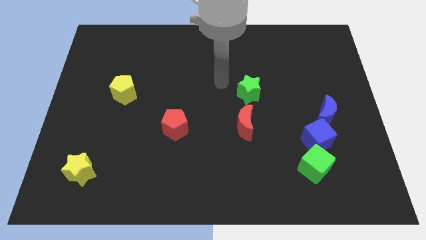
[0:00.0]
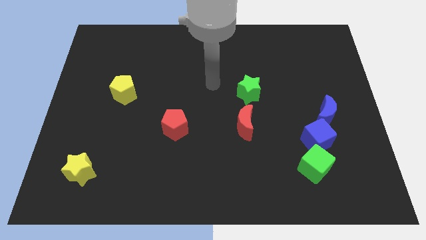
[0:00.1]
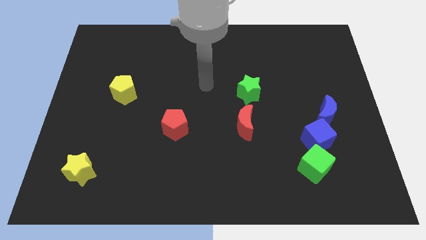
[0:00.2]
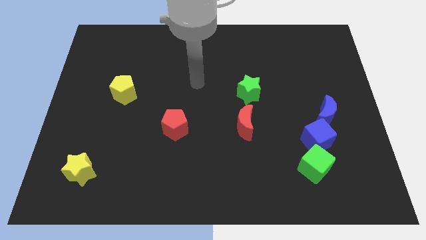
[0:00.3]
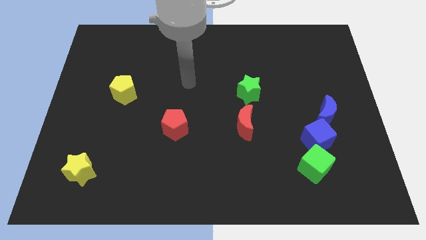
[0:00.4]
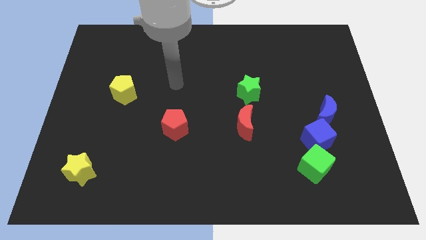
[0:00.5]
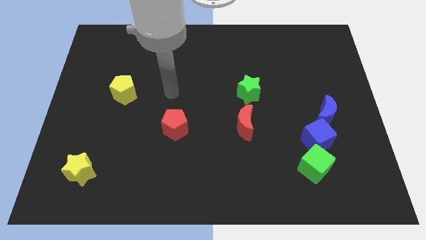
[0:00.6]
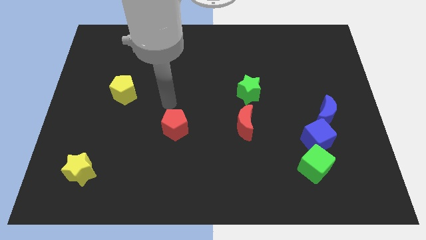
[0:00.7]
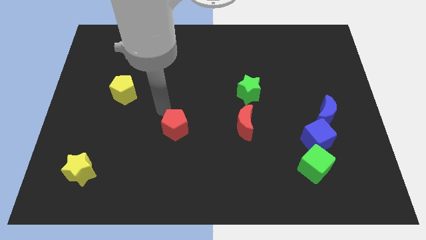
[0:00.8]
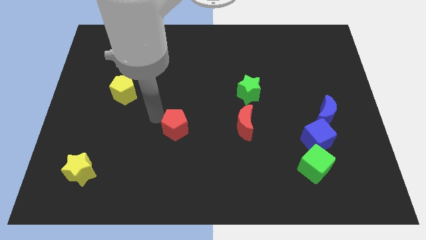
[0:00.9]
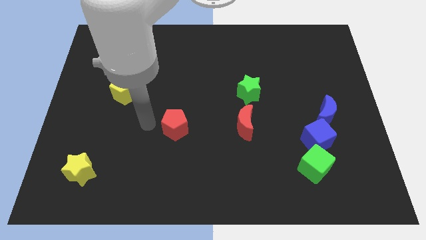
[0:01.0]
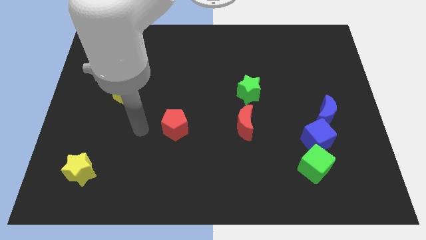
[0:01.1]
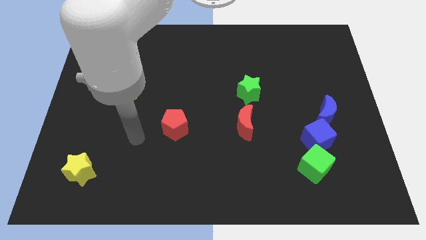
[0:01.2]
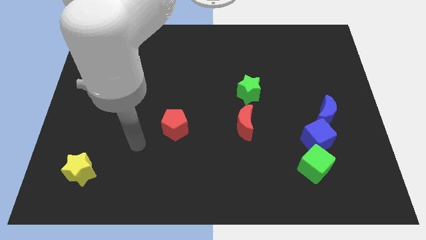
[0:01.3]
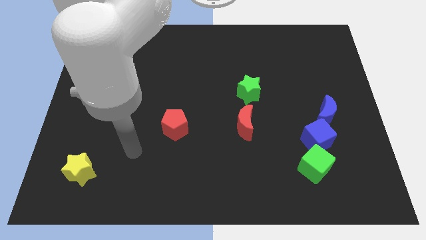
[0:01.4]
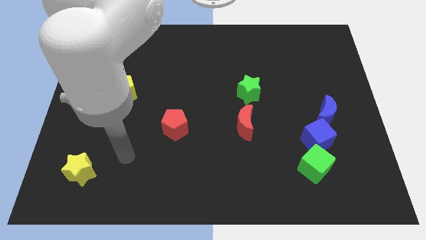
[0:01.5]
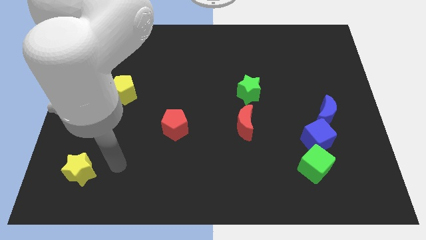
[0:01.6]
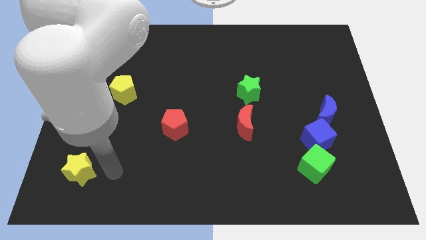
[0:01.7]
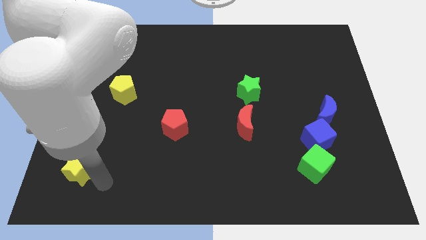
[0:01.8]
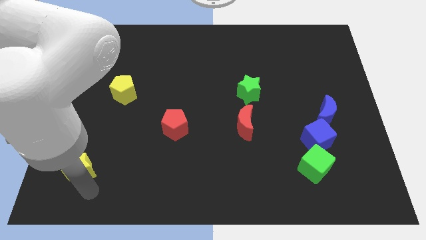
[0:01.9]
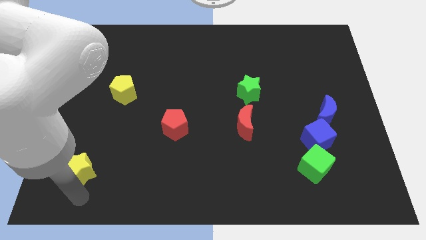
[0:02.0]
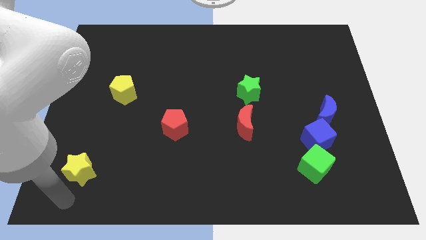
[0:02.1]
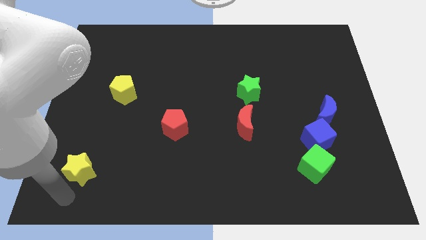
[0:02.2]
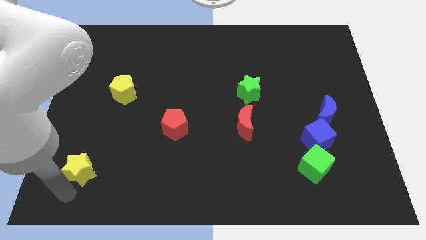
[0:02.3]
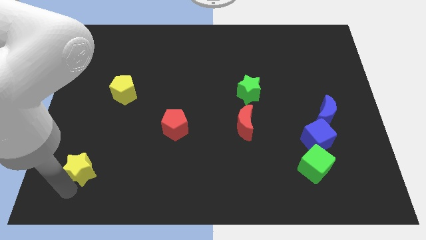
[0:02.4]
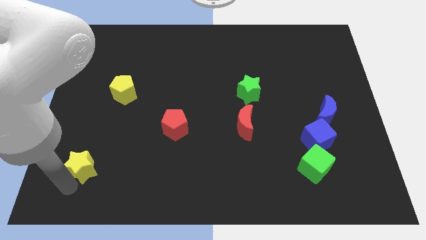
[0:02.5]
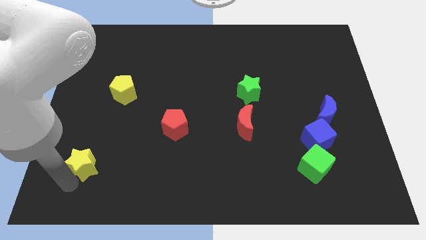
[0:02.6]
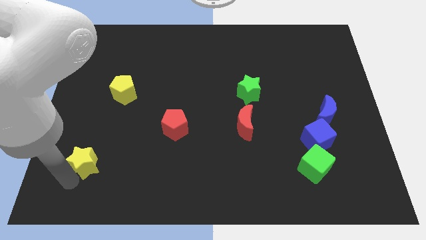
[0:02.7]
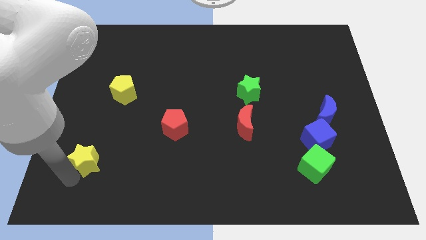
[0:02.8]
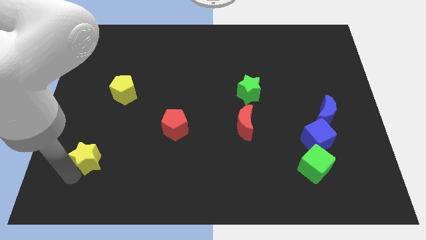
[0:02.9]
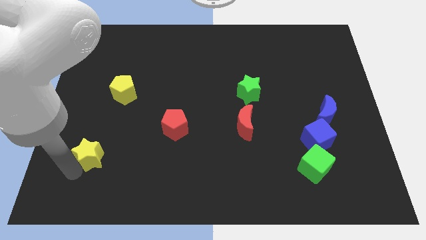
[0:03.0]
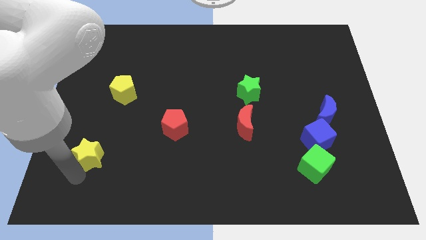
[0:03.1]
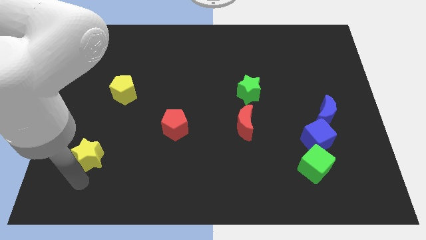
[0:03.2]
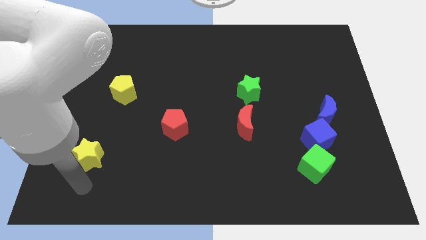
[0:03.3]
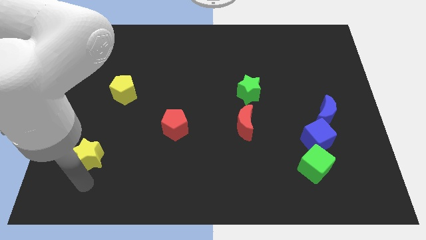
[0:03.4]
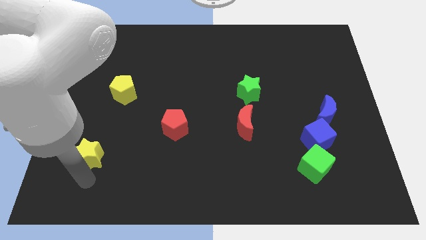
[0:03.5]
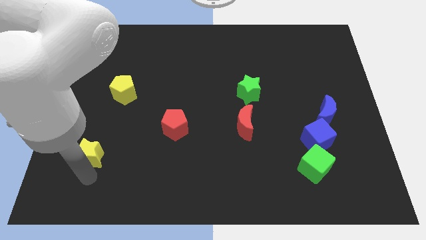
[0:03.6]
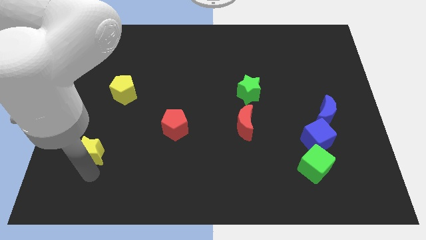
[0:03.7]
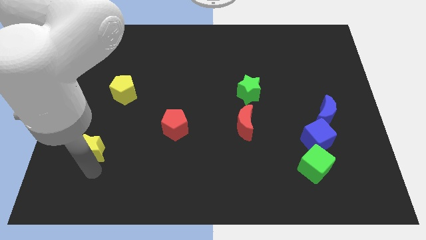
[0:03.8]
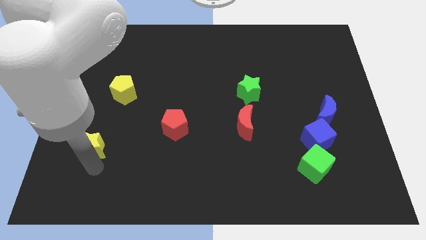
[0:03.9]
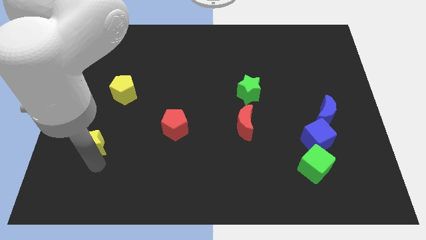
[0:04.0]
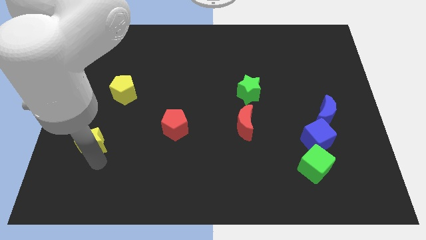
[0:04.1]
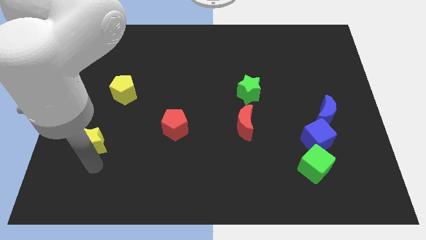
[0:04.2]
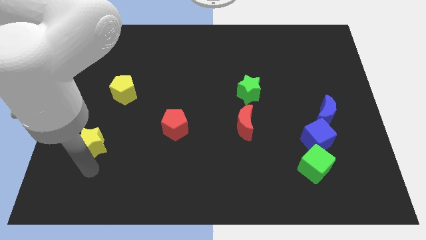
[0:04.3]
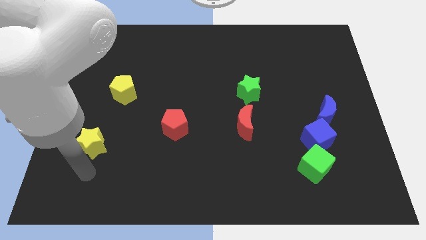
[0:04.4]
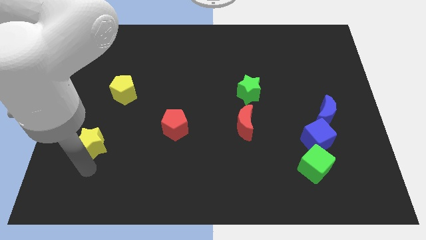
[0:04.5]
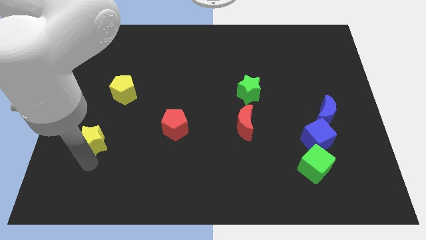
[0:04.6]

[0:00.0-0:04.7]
move the yellow star slightly up

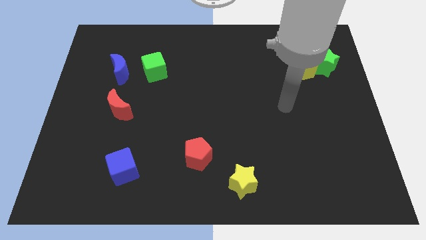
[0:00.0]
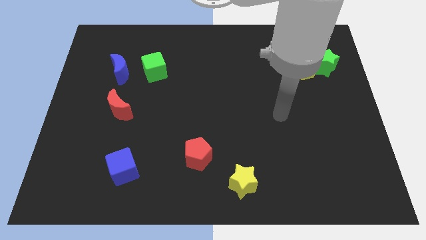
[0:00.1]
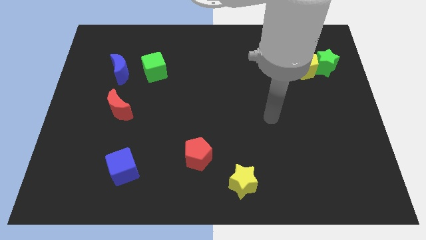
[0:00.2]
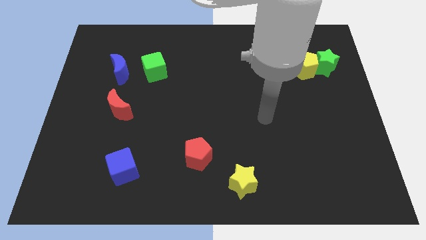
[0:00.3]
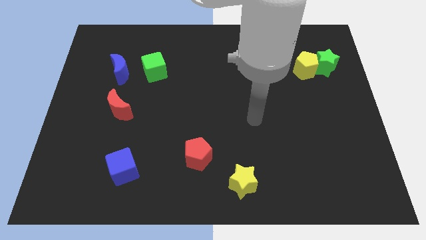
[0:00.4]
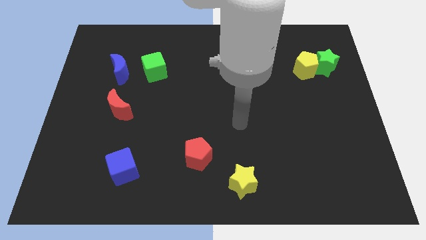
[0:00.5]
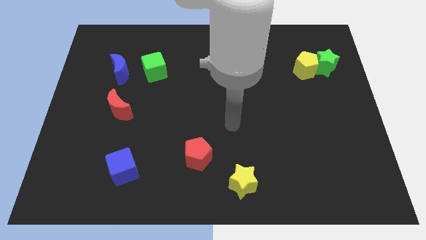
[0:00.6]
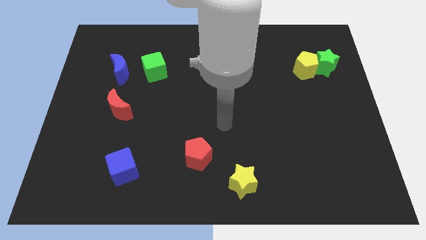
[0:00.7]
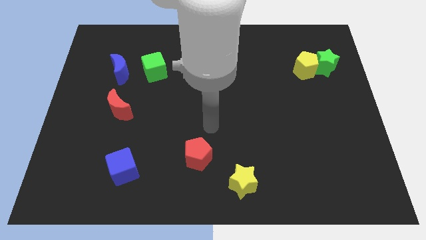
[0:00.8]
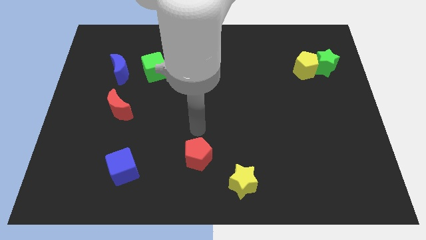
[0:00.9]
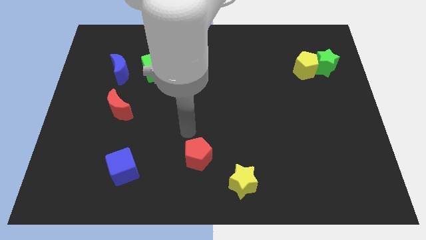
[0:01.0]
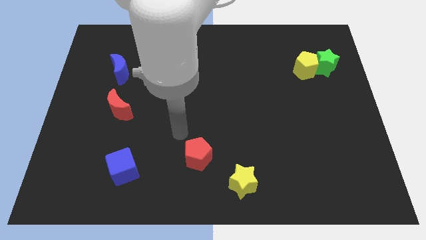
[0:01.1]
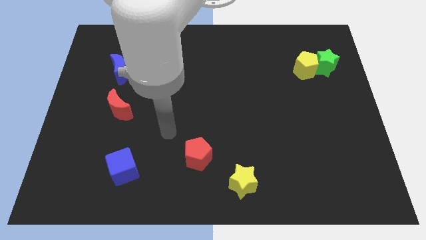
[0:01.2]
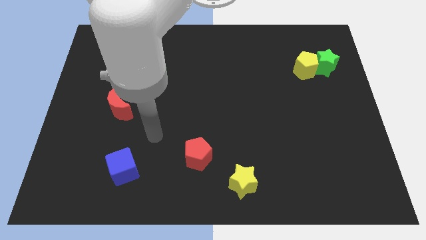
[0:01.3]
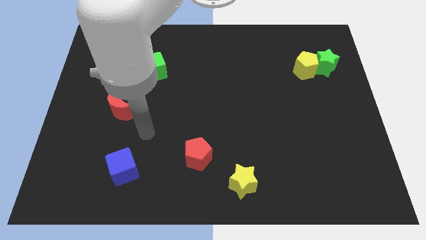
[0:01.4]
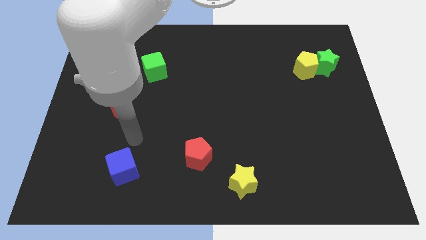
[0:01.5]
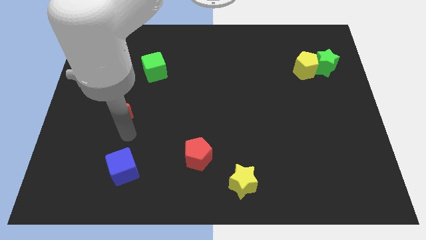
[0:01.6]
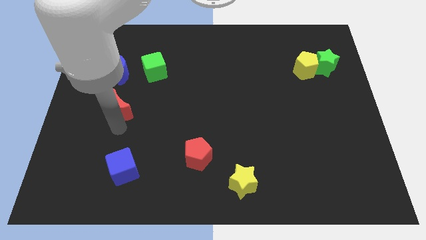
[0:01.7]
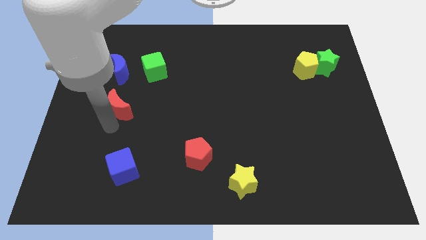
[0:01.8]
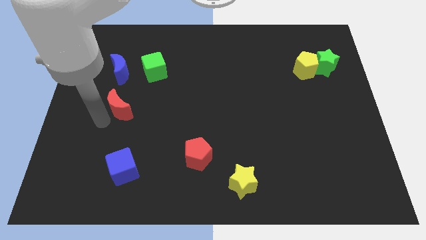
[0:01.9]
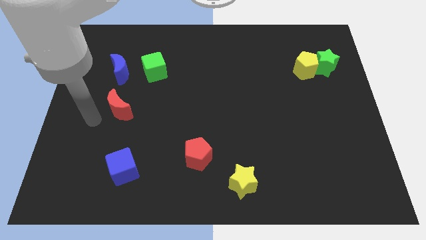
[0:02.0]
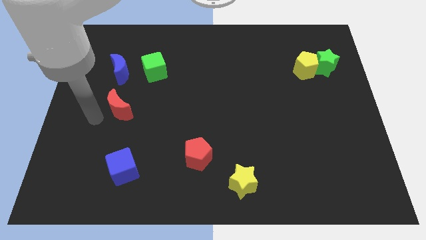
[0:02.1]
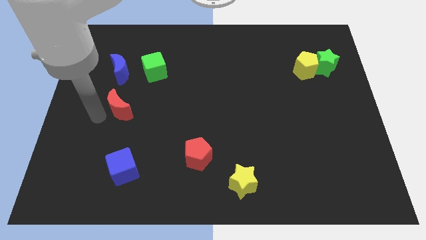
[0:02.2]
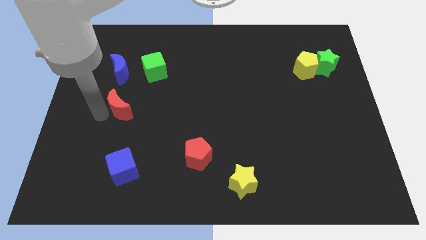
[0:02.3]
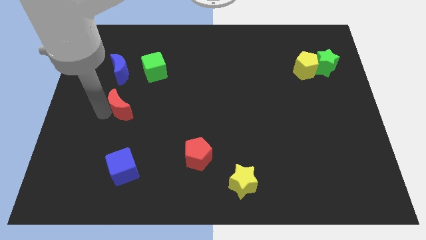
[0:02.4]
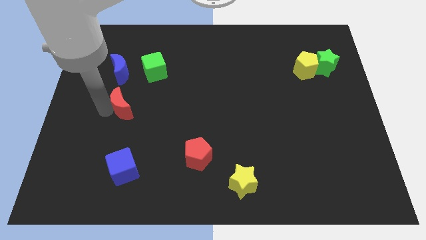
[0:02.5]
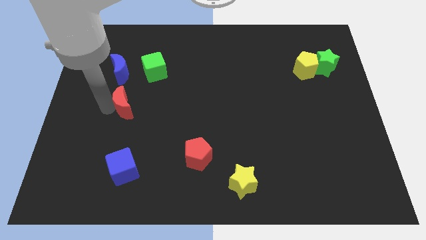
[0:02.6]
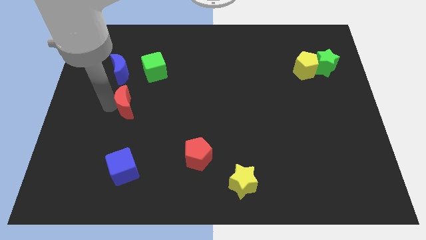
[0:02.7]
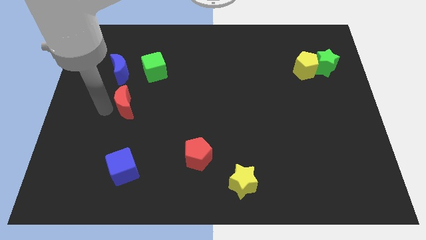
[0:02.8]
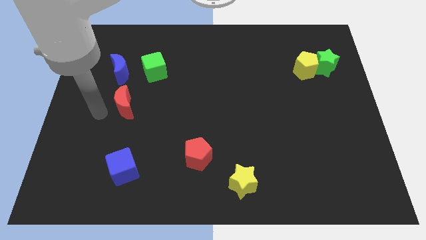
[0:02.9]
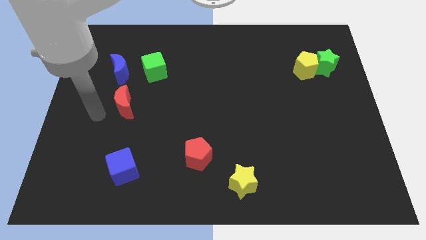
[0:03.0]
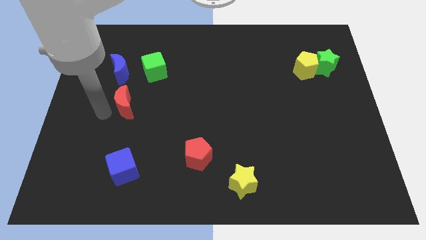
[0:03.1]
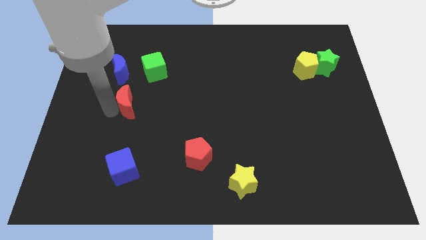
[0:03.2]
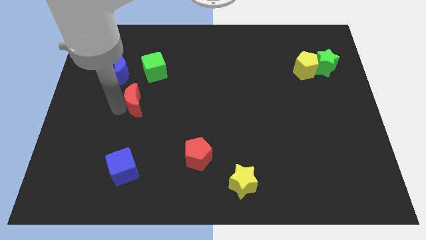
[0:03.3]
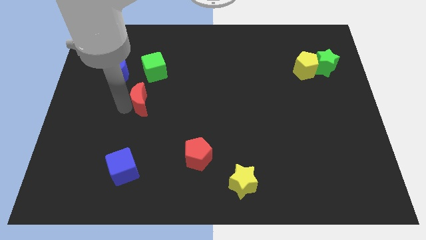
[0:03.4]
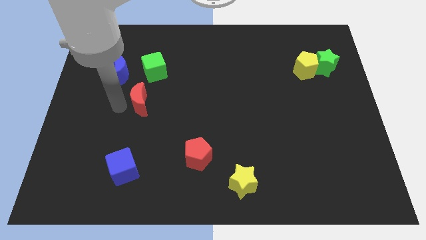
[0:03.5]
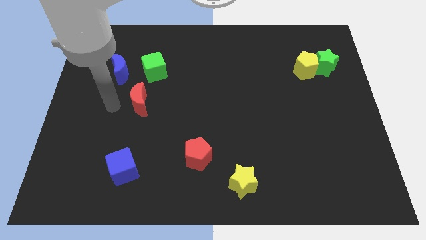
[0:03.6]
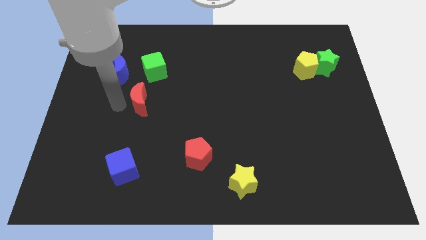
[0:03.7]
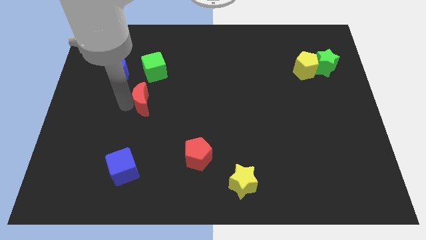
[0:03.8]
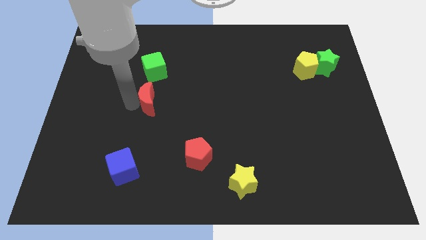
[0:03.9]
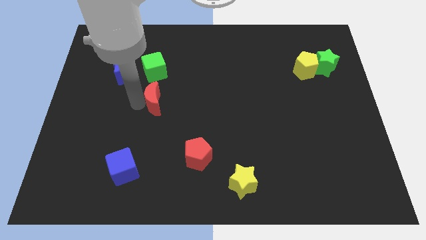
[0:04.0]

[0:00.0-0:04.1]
slightly push the red moon to the right
